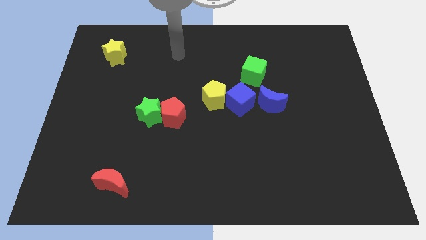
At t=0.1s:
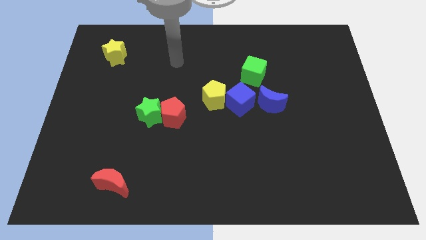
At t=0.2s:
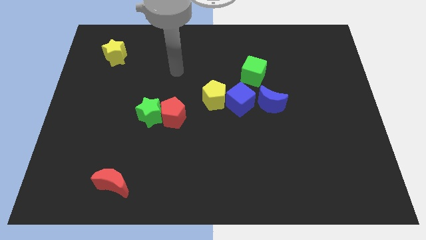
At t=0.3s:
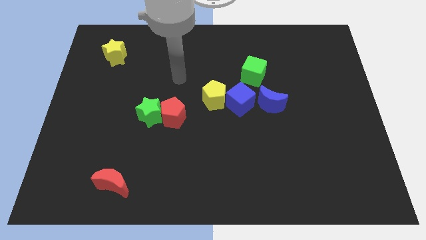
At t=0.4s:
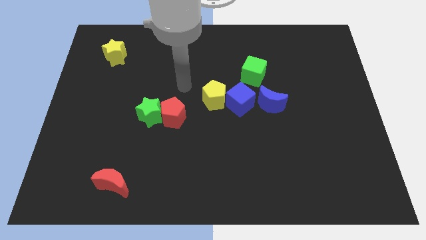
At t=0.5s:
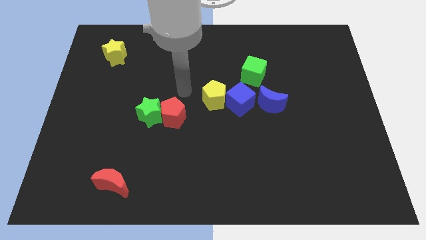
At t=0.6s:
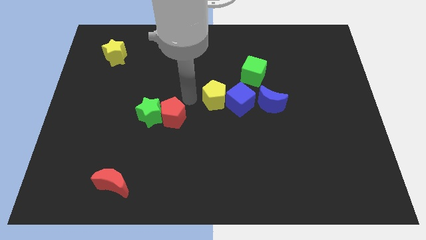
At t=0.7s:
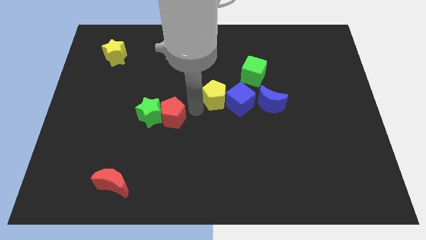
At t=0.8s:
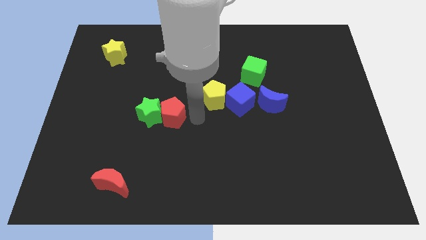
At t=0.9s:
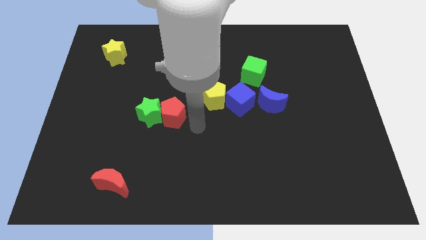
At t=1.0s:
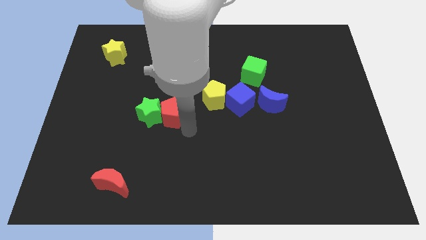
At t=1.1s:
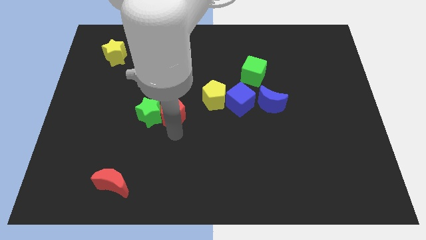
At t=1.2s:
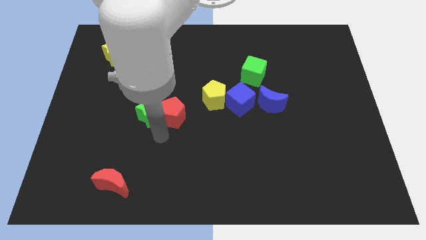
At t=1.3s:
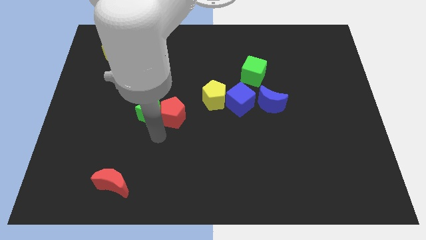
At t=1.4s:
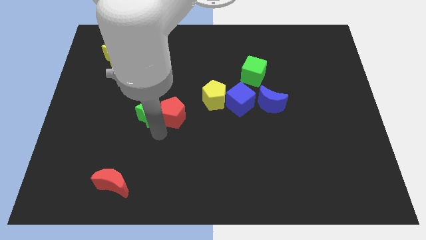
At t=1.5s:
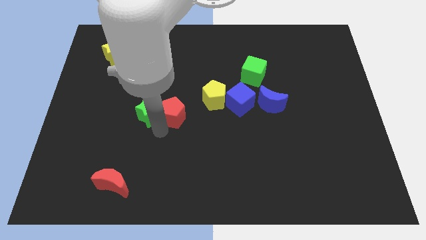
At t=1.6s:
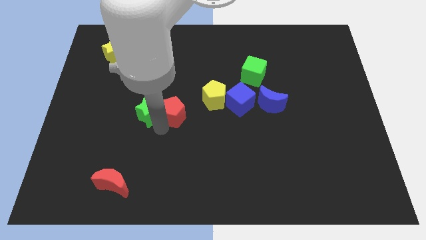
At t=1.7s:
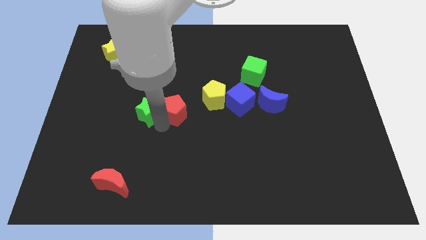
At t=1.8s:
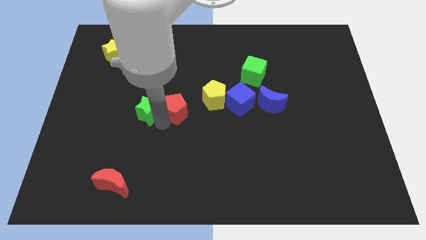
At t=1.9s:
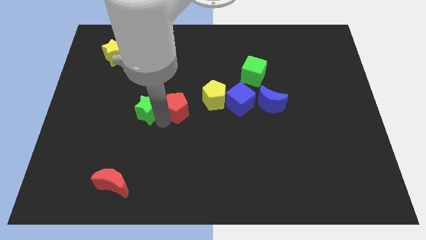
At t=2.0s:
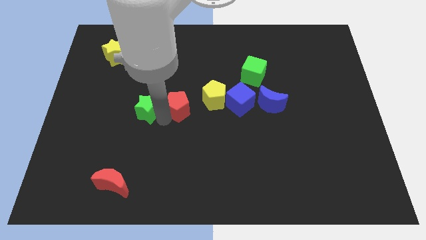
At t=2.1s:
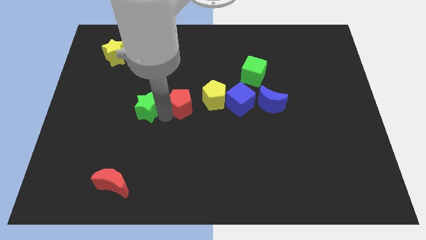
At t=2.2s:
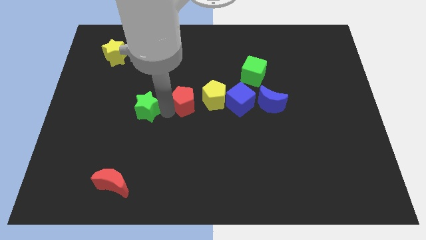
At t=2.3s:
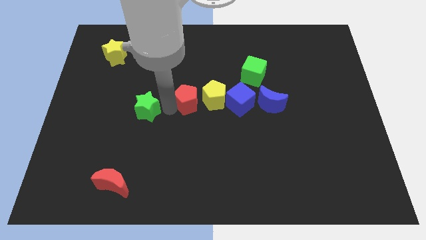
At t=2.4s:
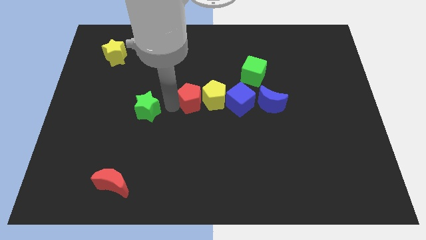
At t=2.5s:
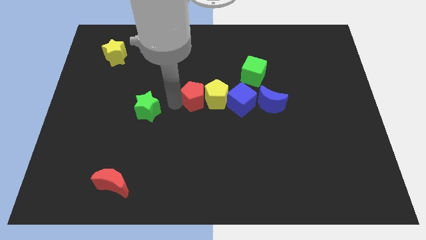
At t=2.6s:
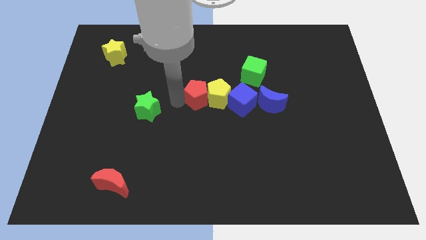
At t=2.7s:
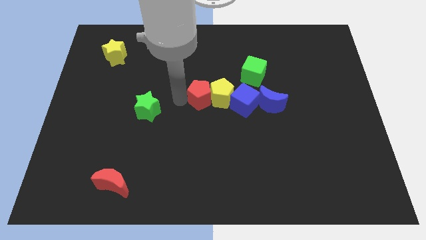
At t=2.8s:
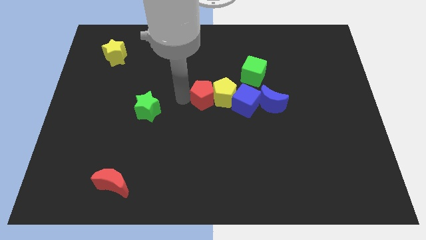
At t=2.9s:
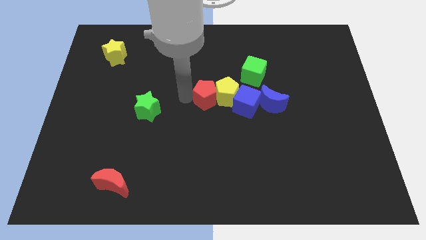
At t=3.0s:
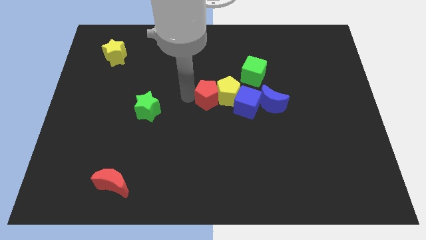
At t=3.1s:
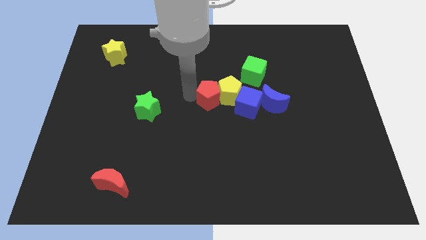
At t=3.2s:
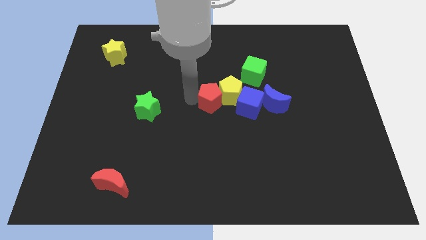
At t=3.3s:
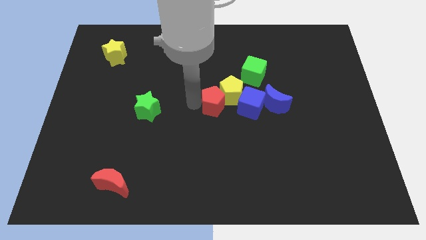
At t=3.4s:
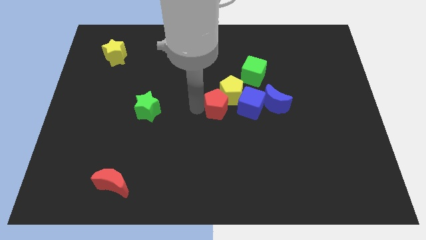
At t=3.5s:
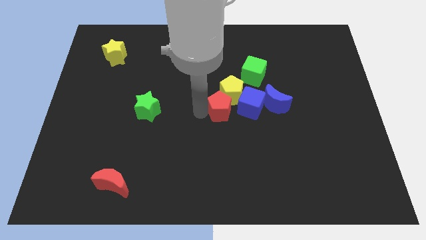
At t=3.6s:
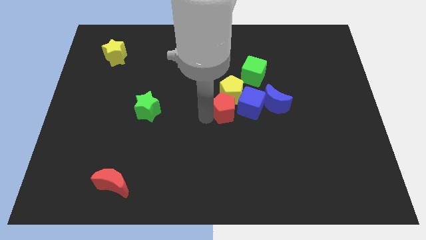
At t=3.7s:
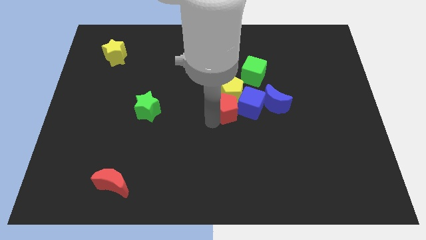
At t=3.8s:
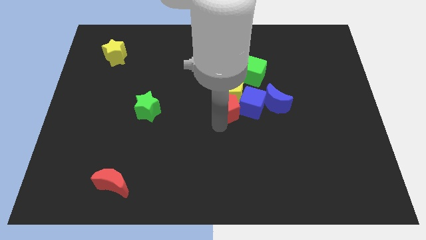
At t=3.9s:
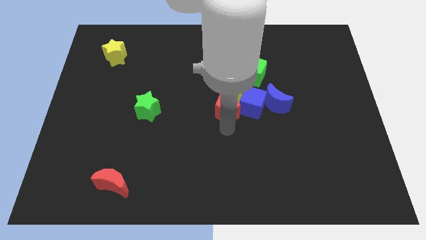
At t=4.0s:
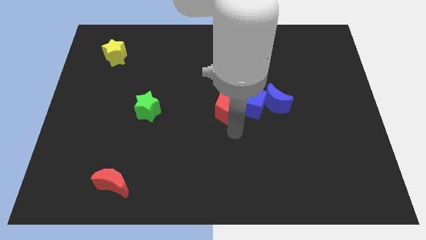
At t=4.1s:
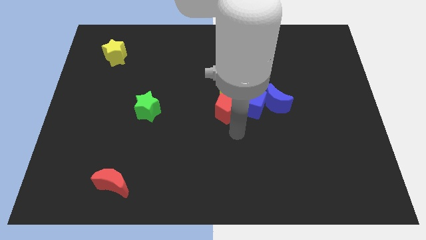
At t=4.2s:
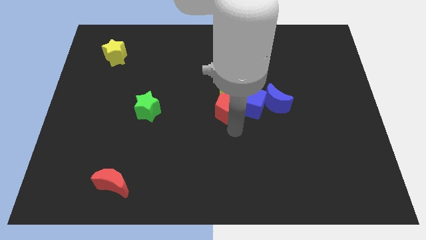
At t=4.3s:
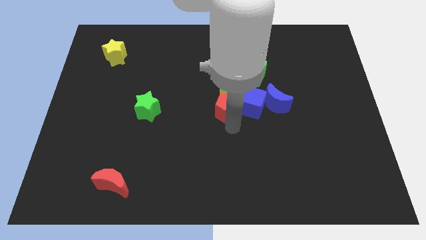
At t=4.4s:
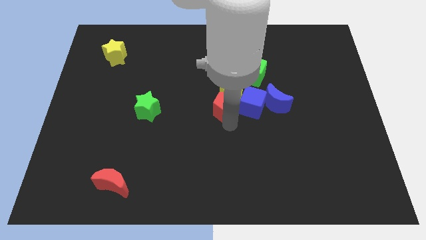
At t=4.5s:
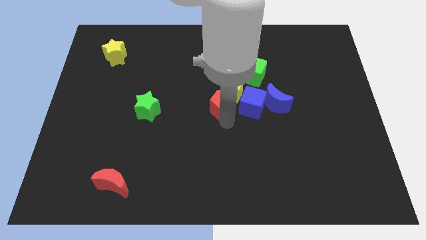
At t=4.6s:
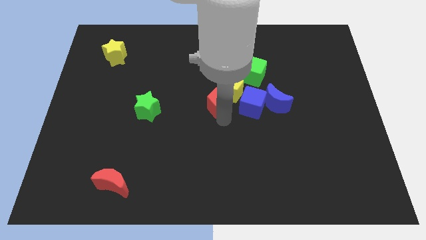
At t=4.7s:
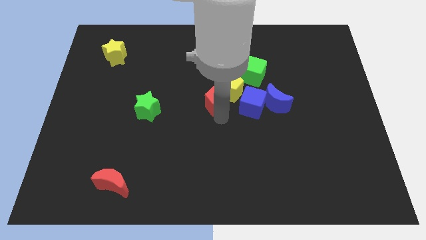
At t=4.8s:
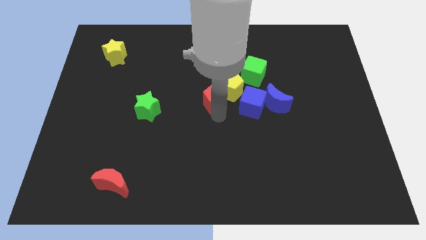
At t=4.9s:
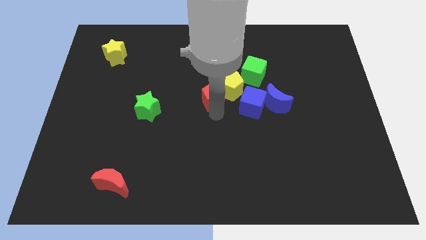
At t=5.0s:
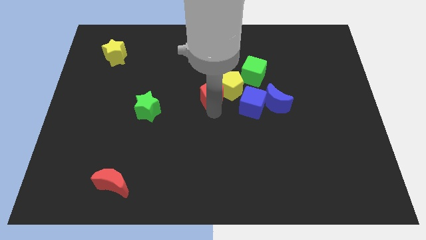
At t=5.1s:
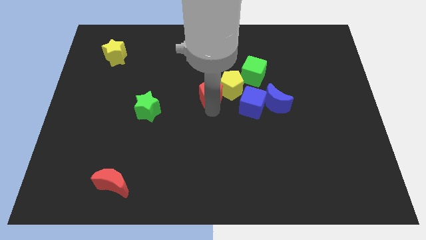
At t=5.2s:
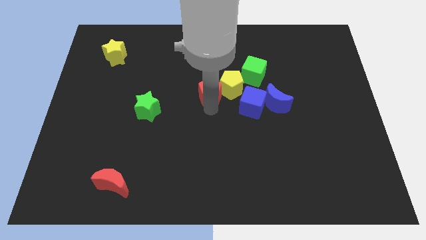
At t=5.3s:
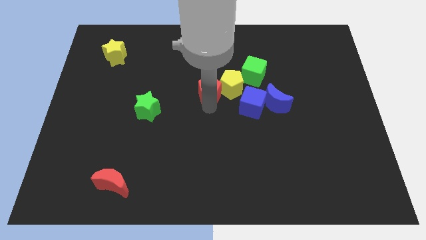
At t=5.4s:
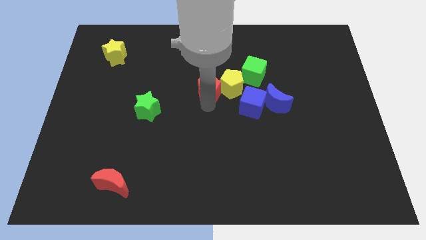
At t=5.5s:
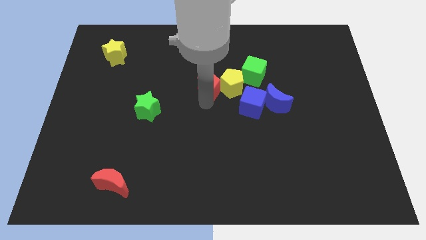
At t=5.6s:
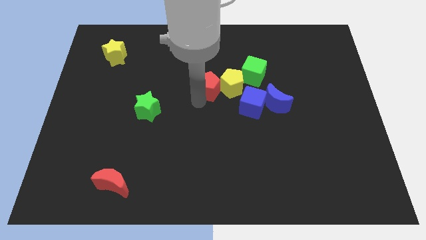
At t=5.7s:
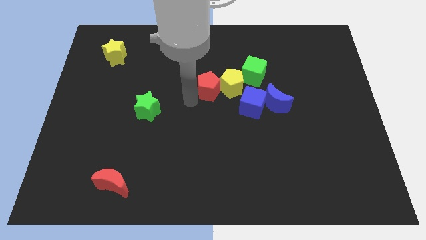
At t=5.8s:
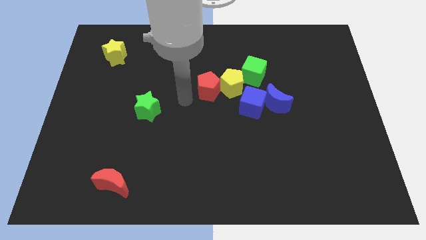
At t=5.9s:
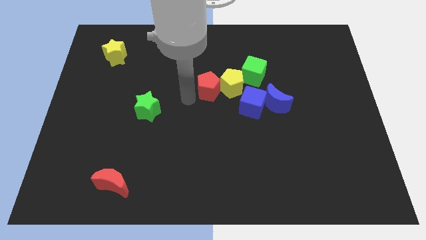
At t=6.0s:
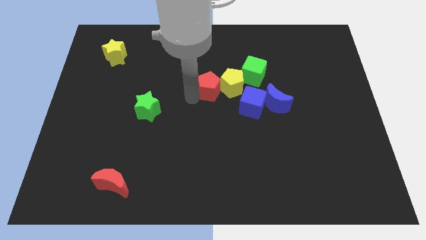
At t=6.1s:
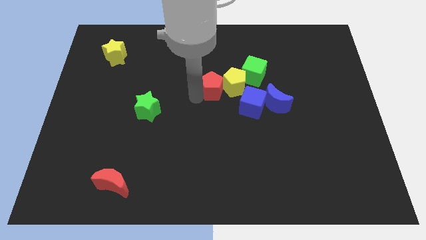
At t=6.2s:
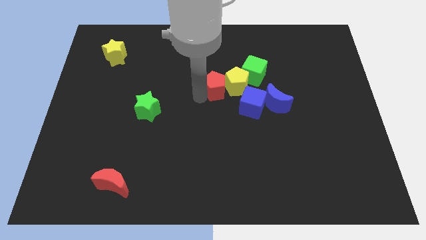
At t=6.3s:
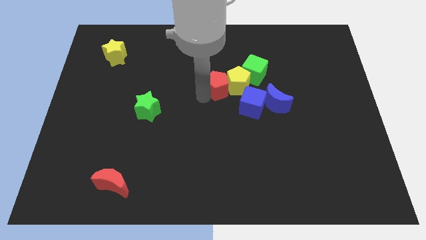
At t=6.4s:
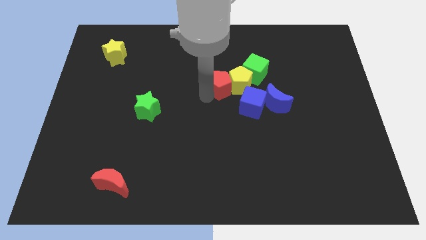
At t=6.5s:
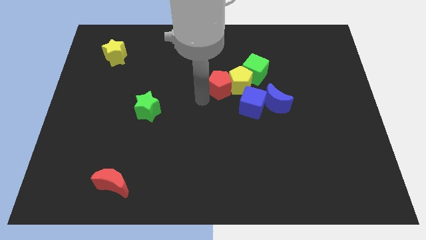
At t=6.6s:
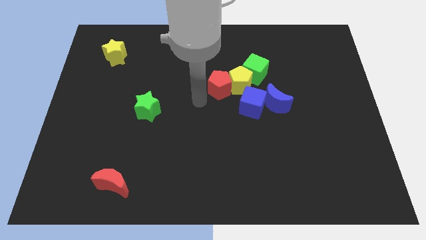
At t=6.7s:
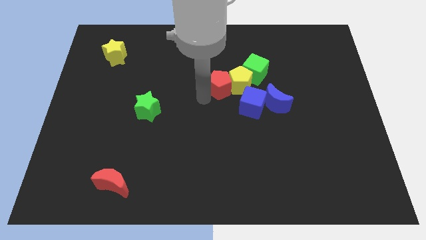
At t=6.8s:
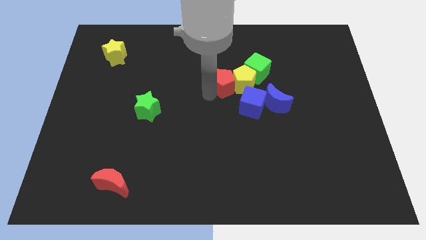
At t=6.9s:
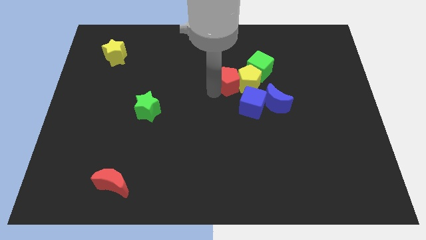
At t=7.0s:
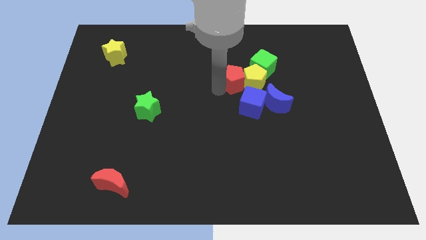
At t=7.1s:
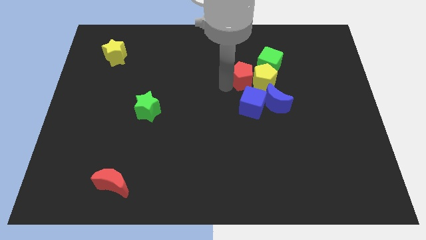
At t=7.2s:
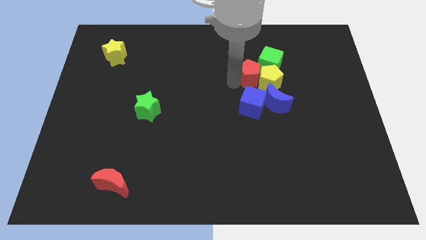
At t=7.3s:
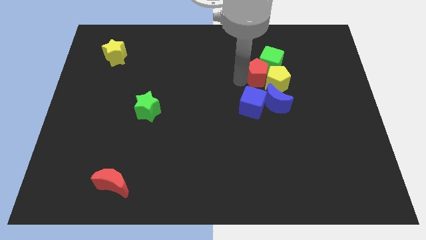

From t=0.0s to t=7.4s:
slide the red pentagon to the green cube

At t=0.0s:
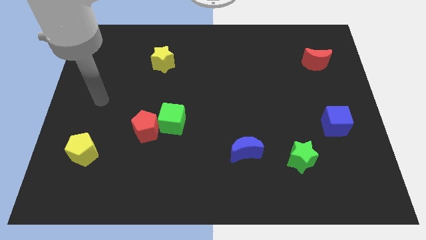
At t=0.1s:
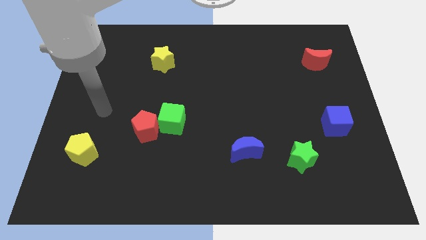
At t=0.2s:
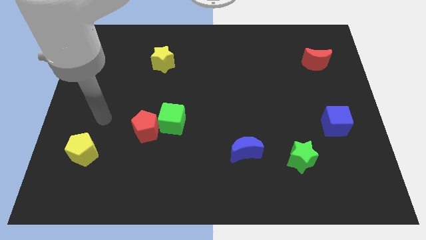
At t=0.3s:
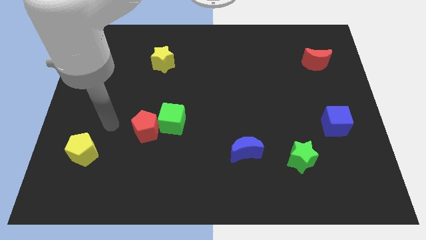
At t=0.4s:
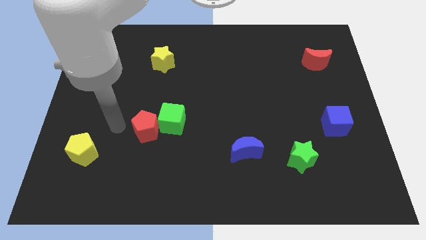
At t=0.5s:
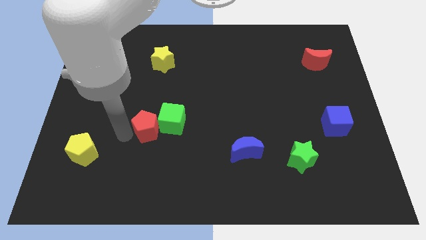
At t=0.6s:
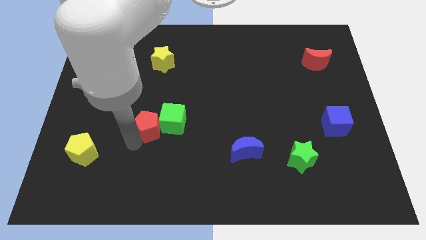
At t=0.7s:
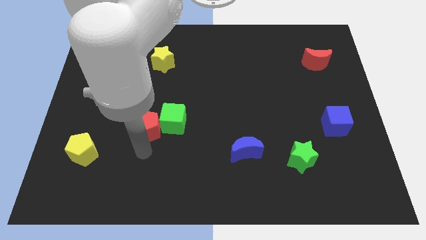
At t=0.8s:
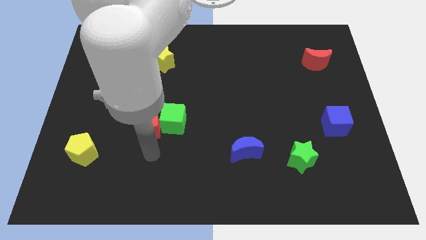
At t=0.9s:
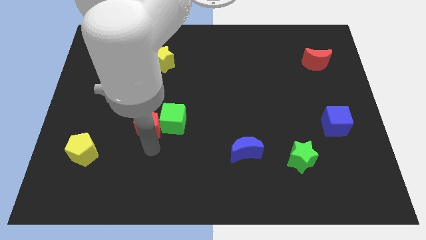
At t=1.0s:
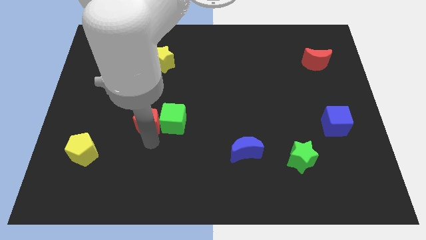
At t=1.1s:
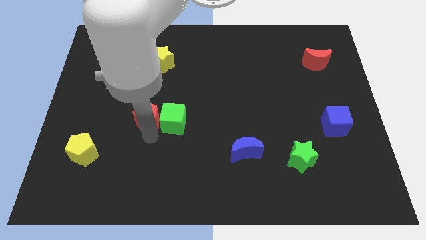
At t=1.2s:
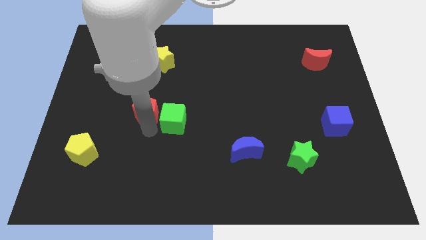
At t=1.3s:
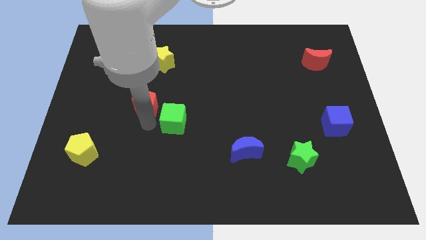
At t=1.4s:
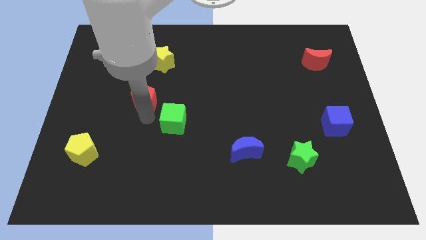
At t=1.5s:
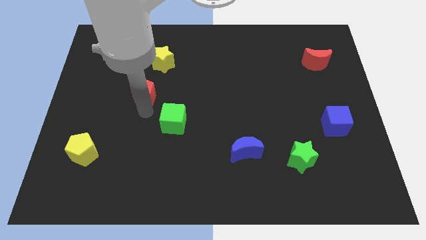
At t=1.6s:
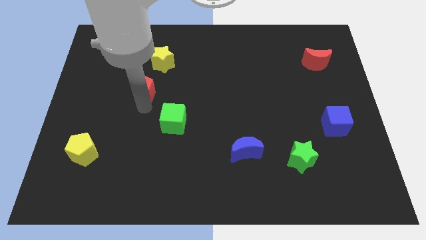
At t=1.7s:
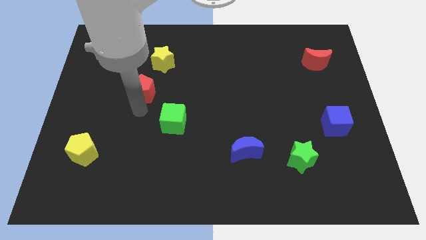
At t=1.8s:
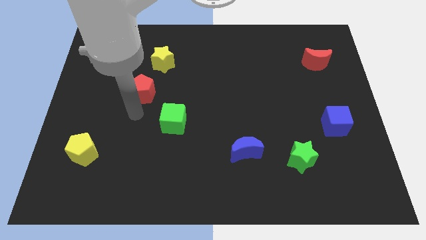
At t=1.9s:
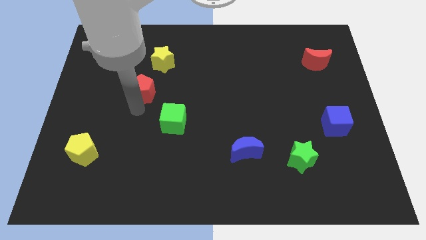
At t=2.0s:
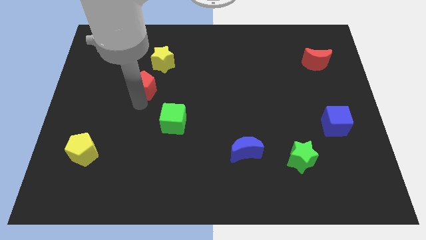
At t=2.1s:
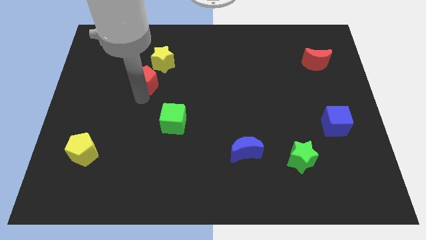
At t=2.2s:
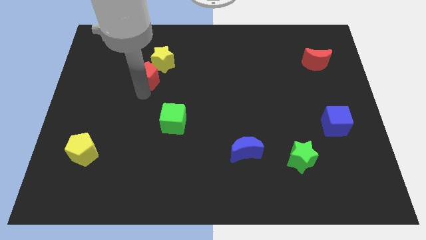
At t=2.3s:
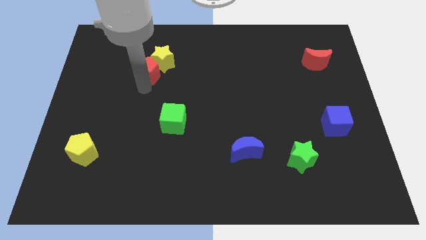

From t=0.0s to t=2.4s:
push the red pentagon to the yellow star
